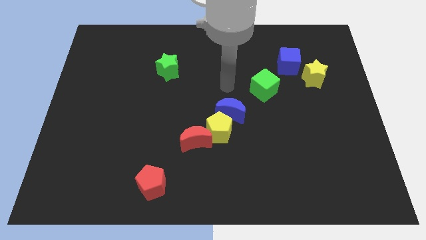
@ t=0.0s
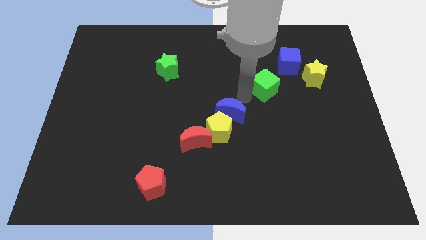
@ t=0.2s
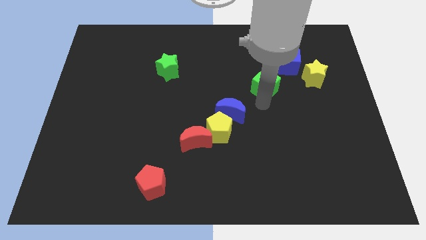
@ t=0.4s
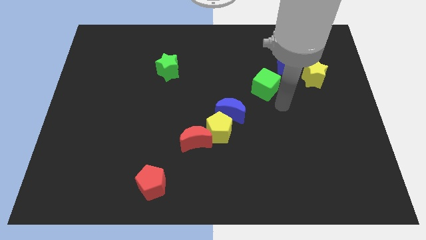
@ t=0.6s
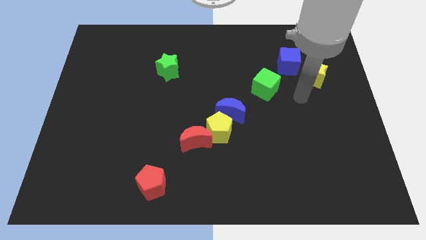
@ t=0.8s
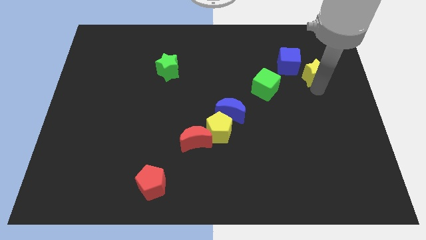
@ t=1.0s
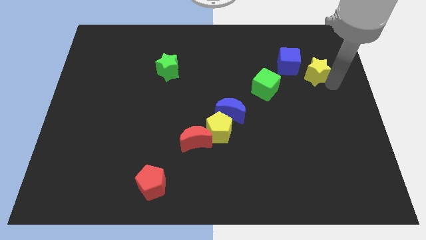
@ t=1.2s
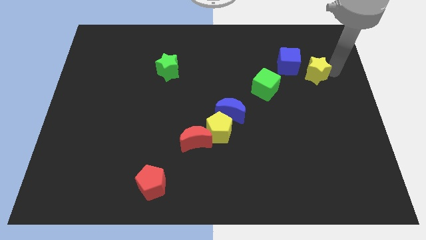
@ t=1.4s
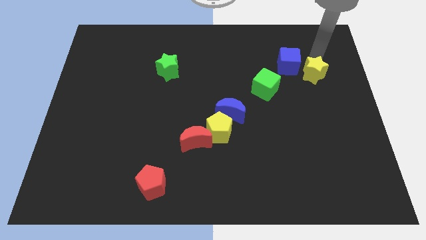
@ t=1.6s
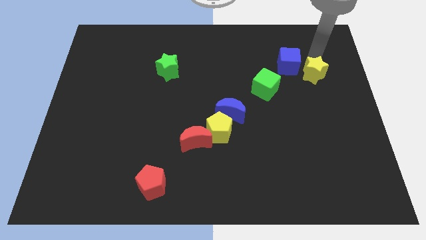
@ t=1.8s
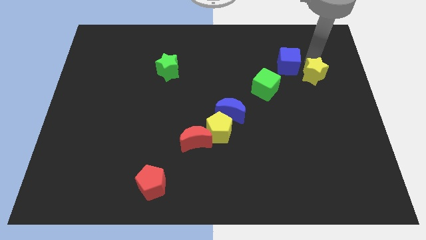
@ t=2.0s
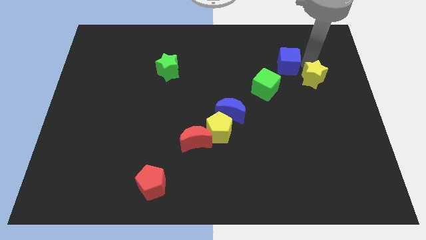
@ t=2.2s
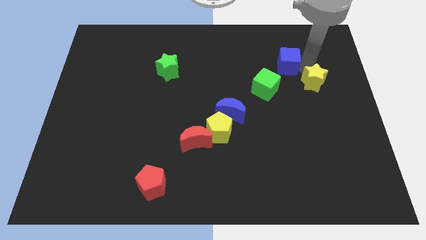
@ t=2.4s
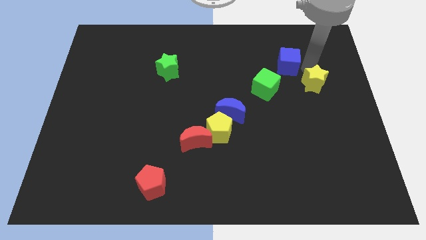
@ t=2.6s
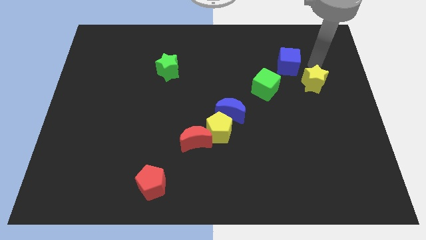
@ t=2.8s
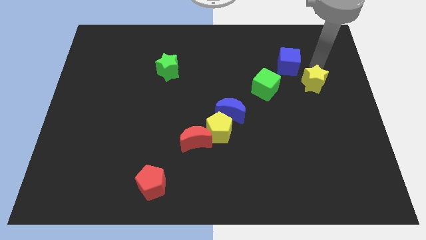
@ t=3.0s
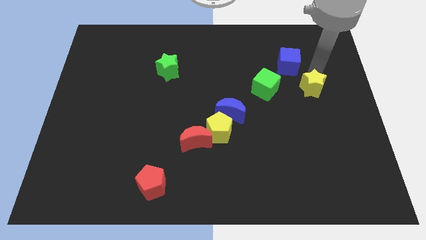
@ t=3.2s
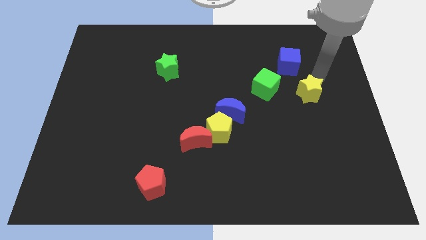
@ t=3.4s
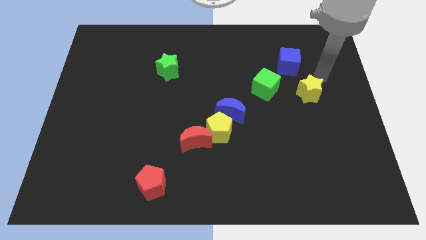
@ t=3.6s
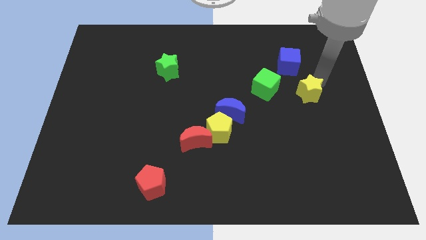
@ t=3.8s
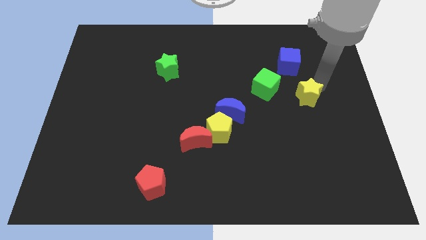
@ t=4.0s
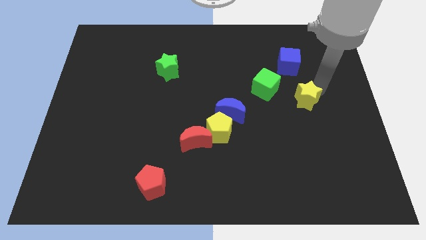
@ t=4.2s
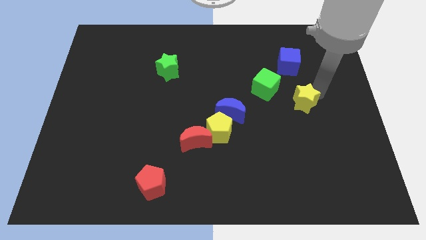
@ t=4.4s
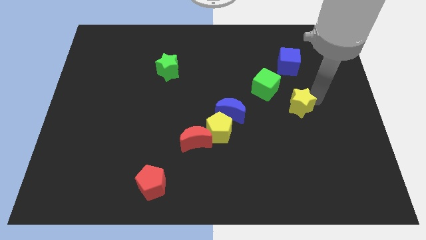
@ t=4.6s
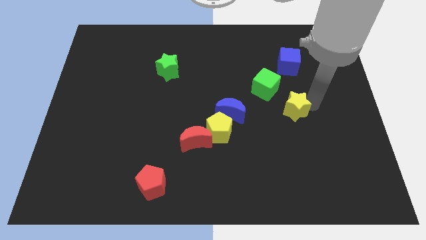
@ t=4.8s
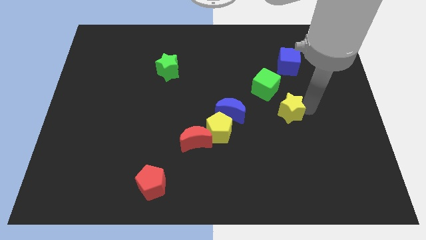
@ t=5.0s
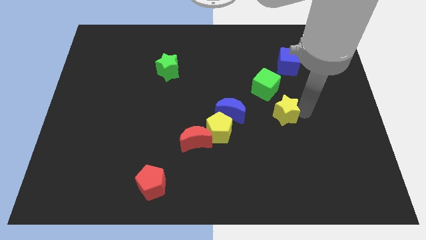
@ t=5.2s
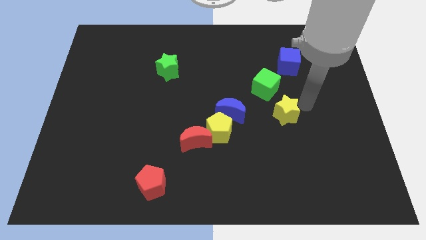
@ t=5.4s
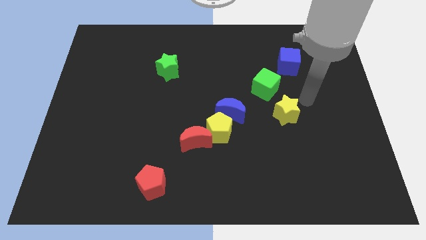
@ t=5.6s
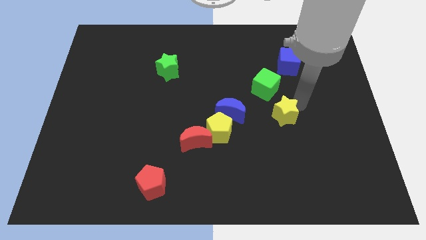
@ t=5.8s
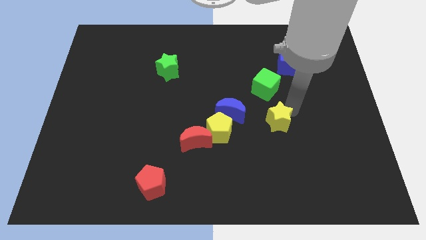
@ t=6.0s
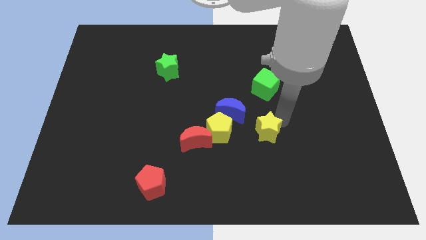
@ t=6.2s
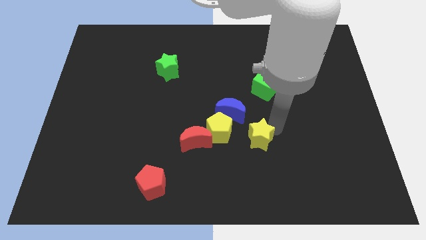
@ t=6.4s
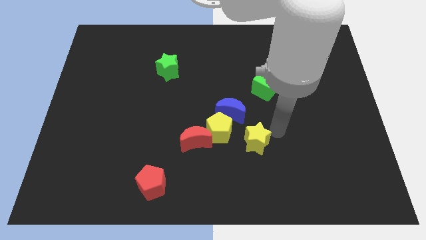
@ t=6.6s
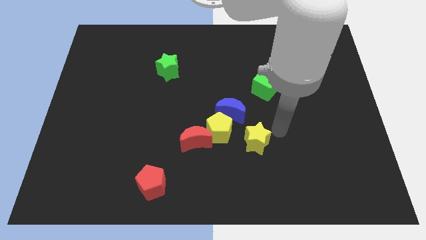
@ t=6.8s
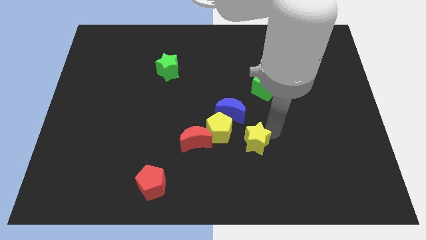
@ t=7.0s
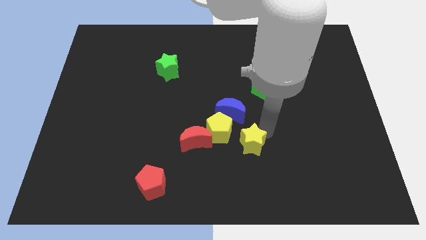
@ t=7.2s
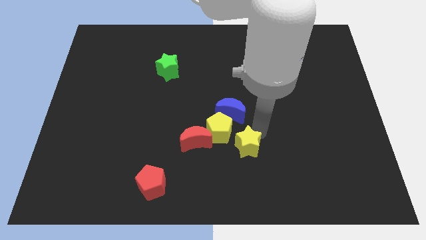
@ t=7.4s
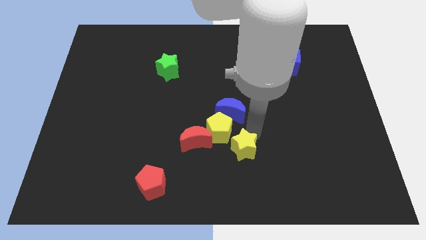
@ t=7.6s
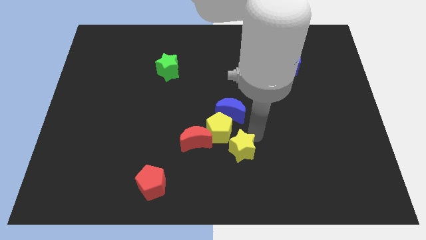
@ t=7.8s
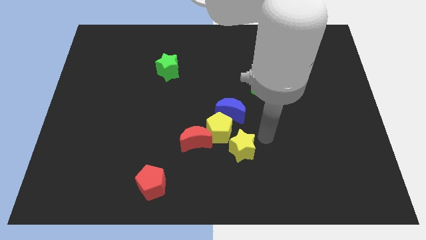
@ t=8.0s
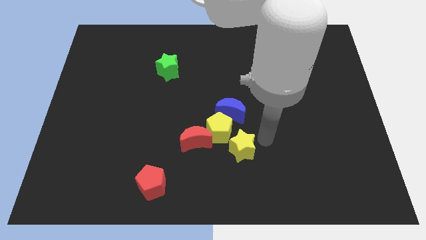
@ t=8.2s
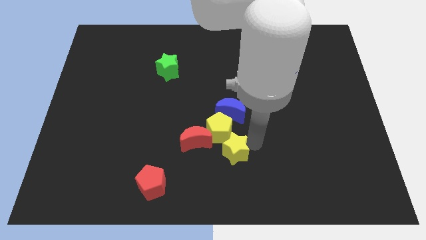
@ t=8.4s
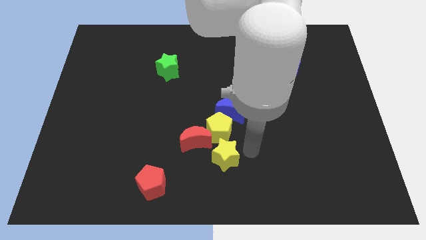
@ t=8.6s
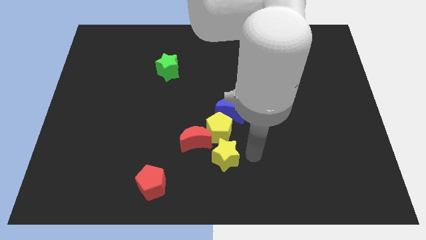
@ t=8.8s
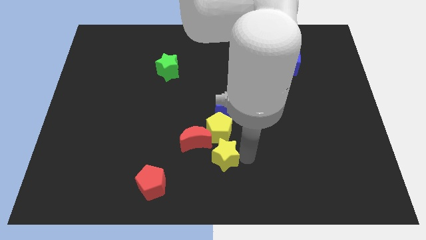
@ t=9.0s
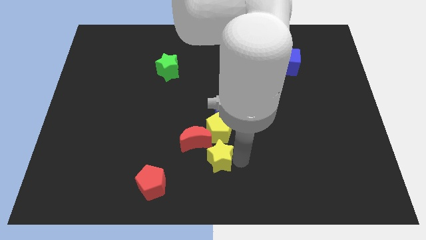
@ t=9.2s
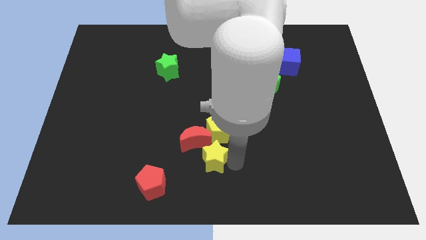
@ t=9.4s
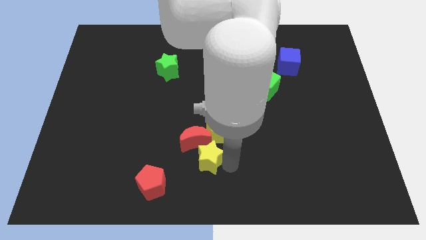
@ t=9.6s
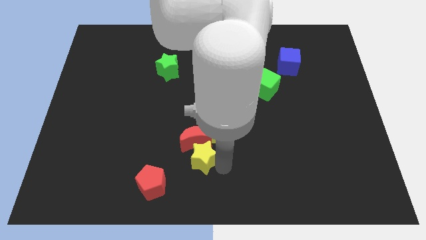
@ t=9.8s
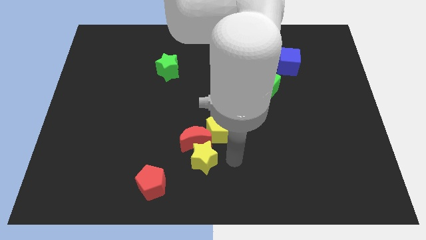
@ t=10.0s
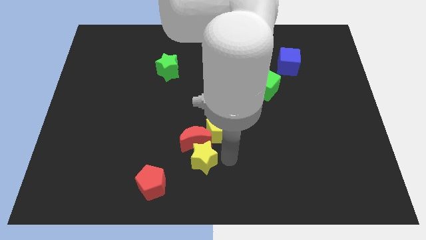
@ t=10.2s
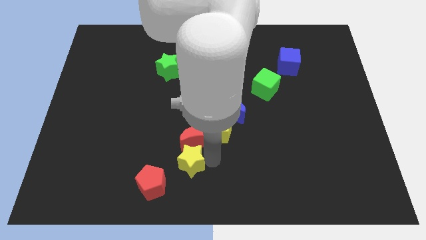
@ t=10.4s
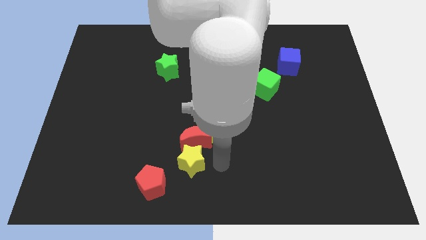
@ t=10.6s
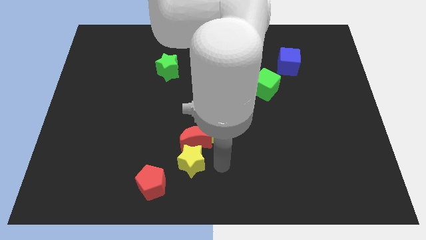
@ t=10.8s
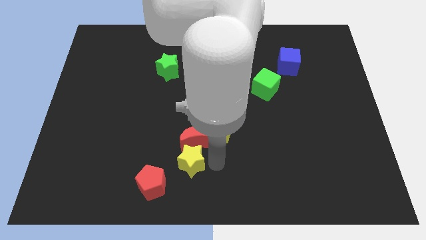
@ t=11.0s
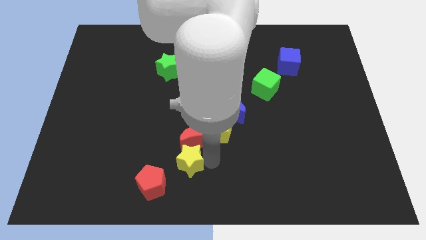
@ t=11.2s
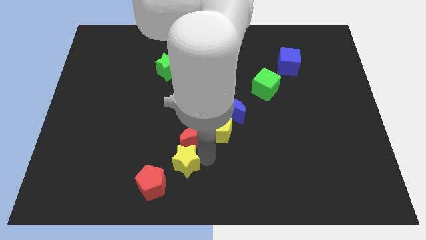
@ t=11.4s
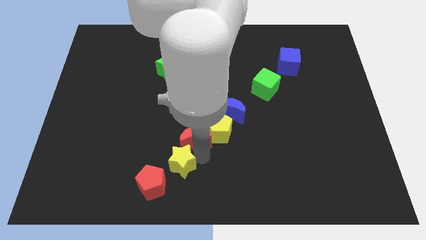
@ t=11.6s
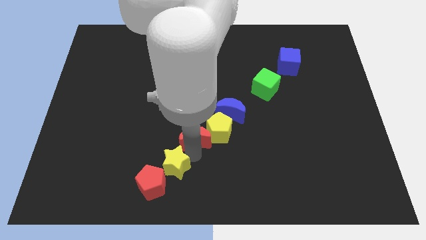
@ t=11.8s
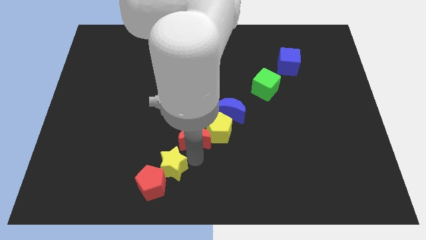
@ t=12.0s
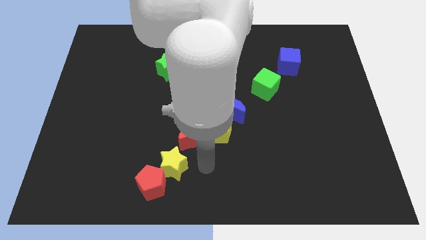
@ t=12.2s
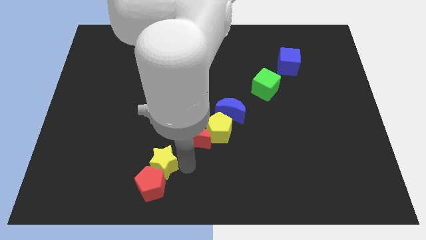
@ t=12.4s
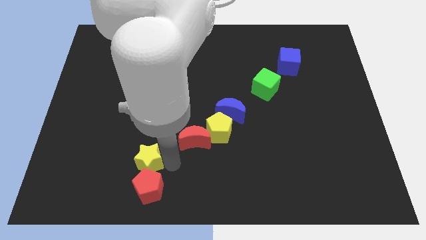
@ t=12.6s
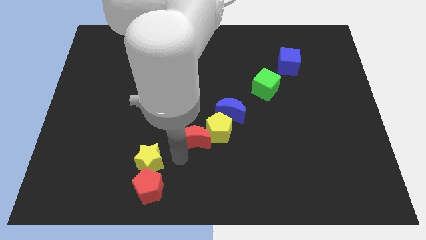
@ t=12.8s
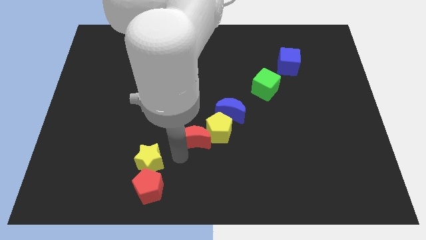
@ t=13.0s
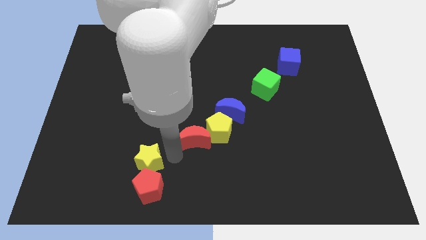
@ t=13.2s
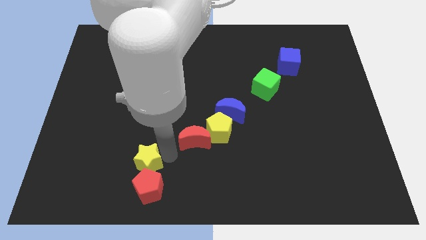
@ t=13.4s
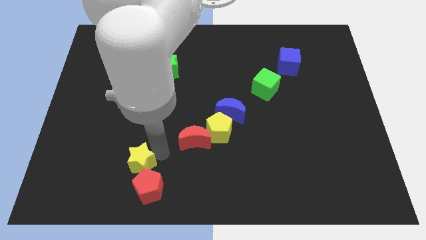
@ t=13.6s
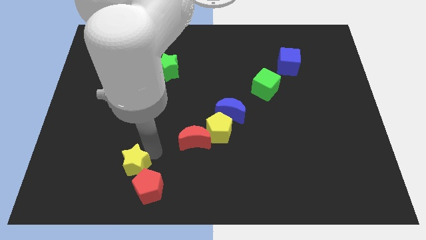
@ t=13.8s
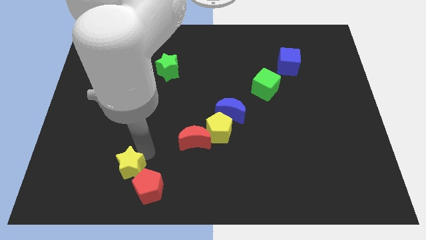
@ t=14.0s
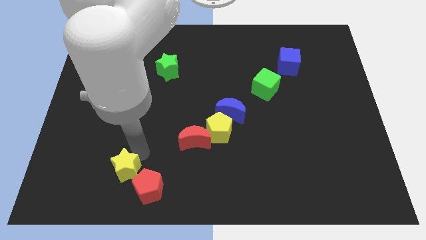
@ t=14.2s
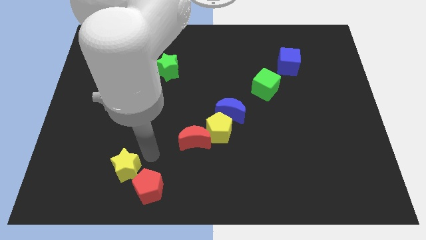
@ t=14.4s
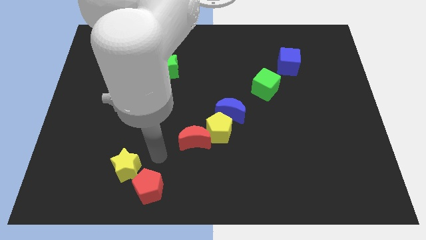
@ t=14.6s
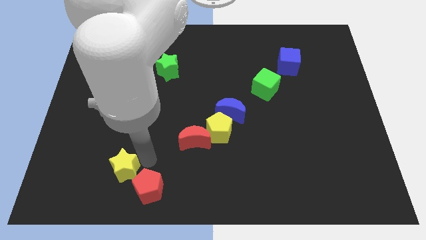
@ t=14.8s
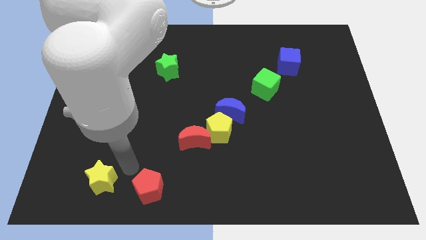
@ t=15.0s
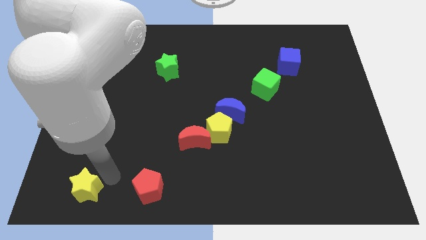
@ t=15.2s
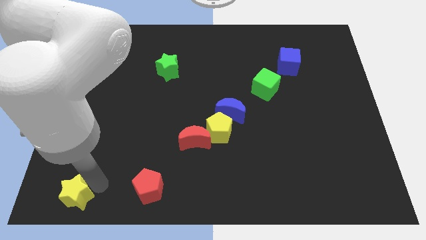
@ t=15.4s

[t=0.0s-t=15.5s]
move the yellow star to the lower left corner
